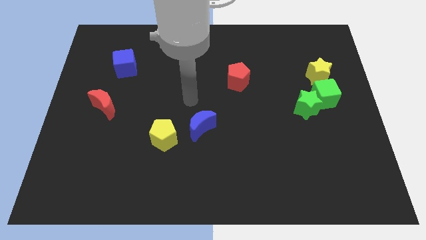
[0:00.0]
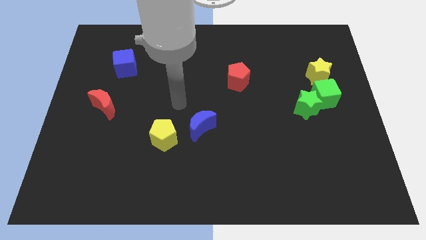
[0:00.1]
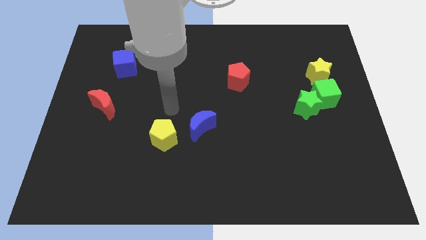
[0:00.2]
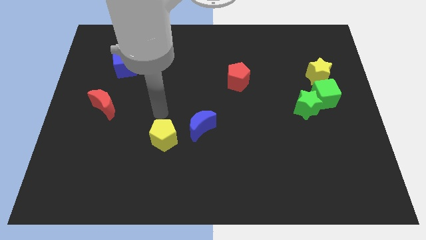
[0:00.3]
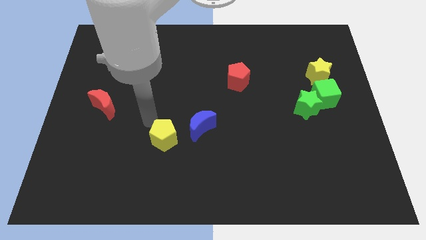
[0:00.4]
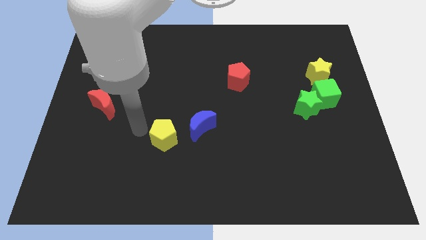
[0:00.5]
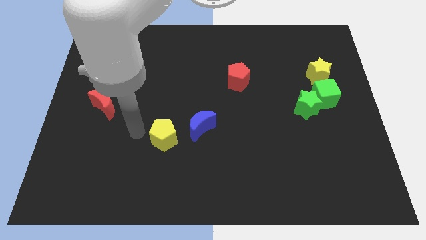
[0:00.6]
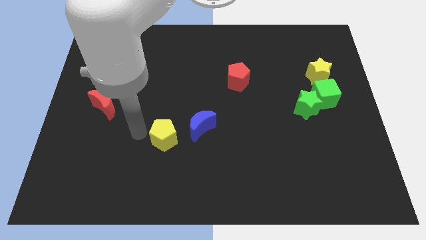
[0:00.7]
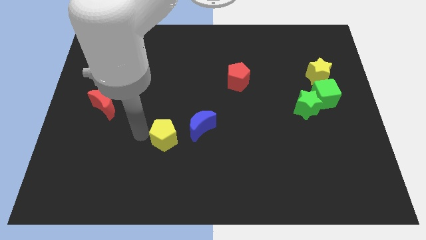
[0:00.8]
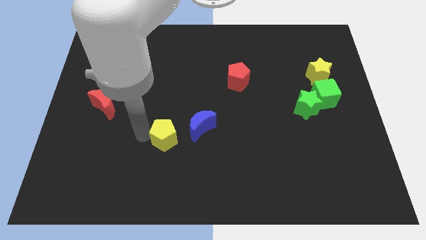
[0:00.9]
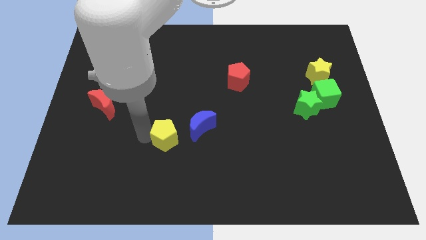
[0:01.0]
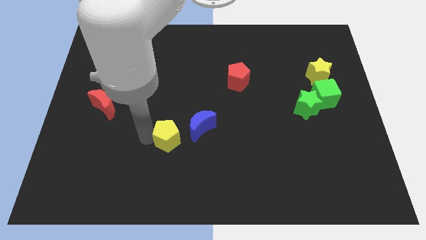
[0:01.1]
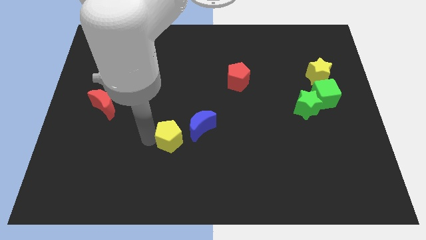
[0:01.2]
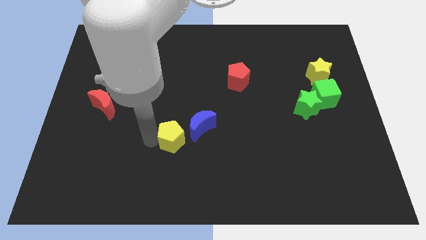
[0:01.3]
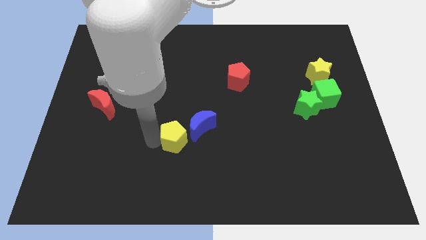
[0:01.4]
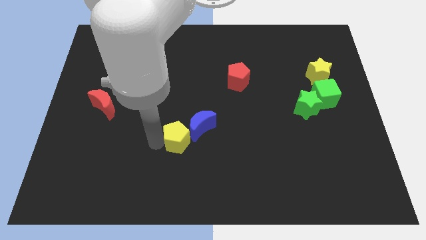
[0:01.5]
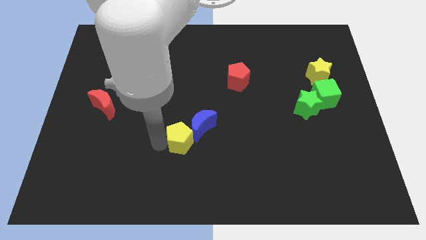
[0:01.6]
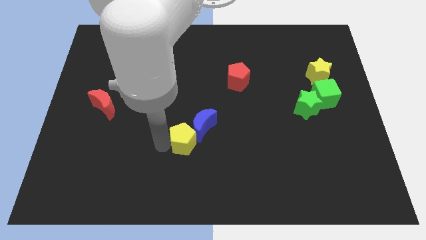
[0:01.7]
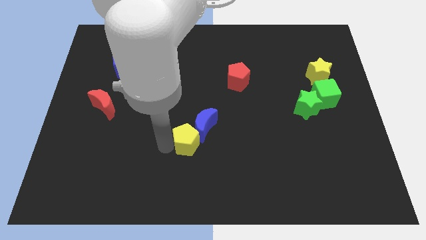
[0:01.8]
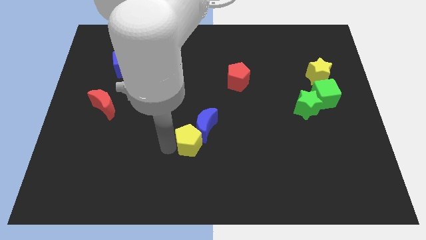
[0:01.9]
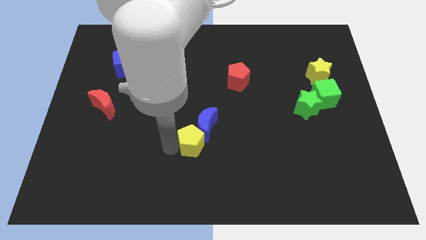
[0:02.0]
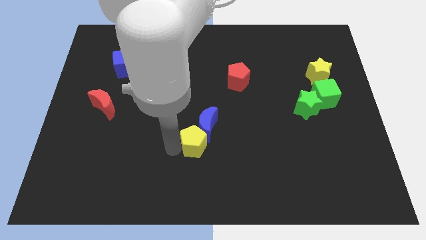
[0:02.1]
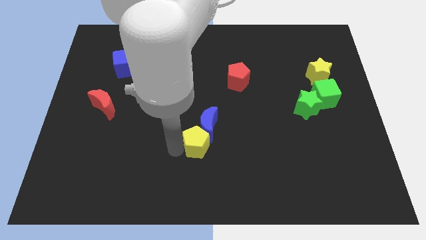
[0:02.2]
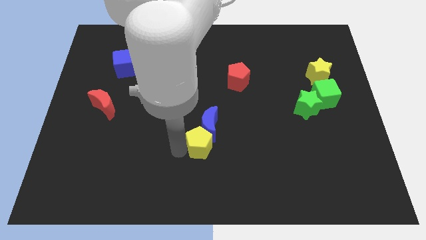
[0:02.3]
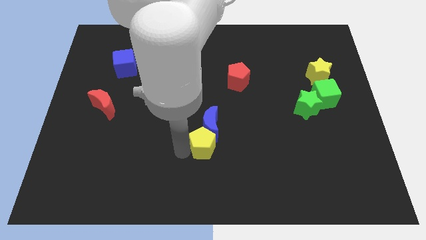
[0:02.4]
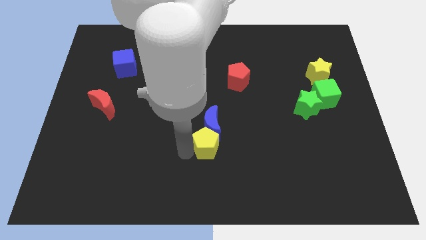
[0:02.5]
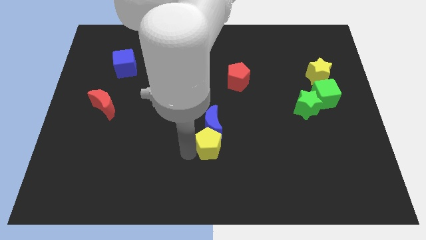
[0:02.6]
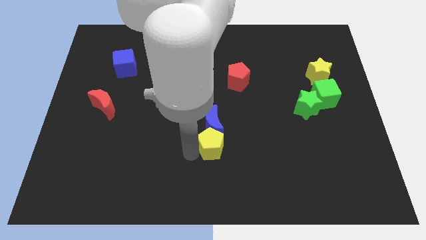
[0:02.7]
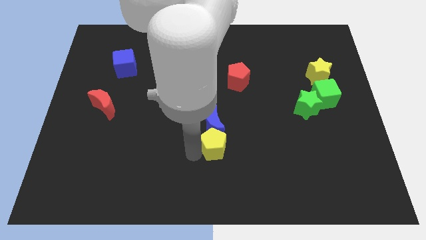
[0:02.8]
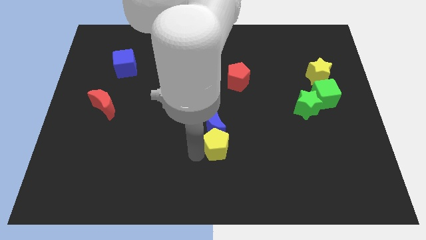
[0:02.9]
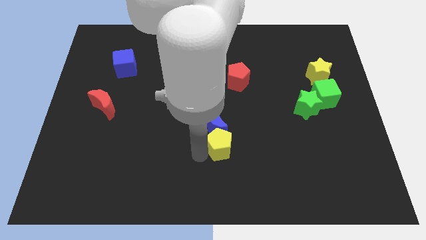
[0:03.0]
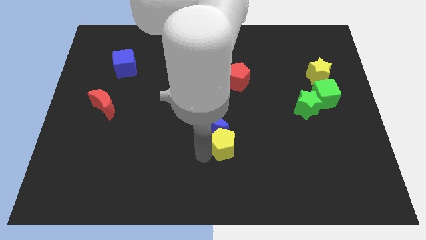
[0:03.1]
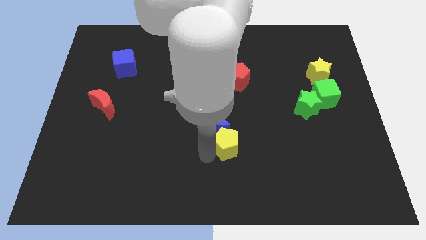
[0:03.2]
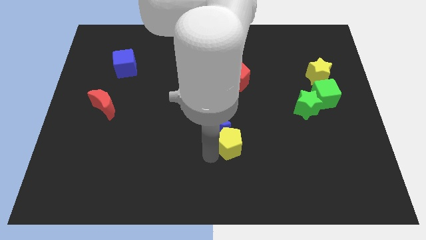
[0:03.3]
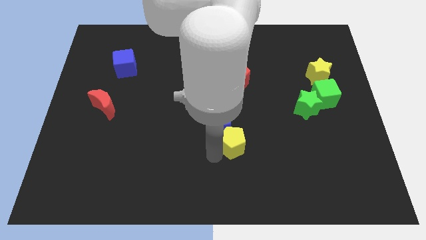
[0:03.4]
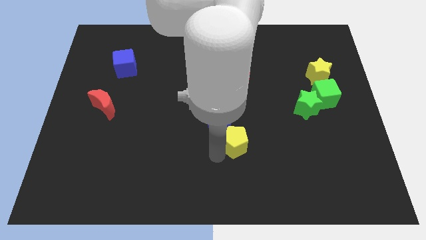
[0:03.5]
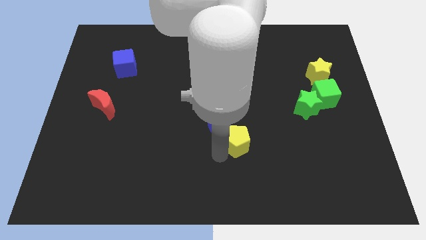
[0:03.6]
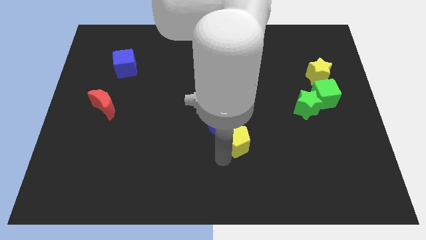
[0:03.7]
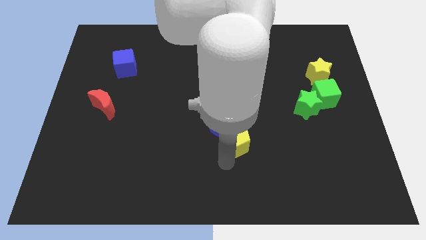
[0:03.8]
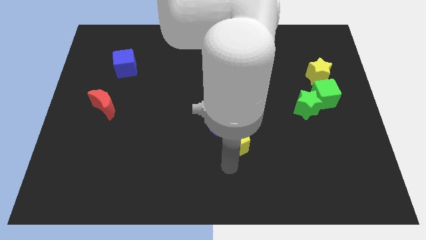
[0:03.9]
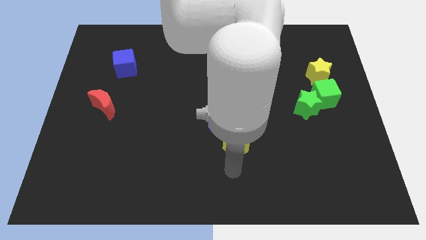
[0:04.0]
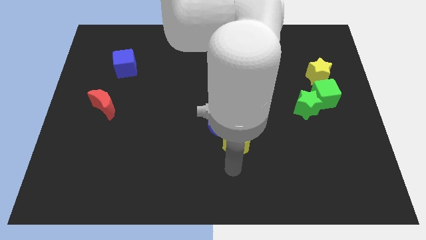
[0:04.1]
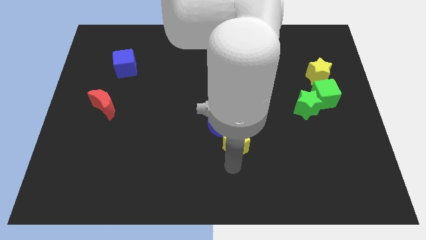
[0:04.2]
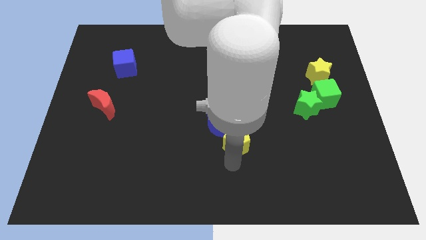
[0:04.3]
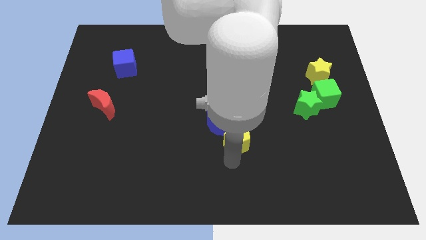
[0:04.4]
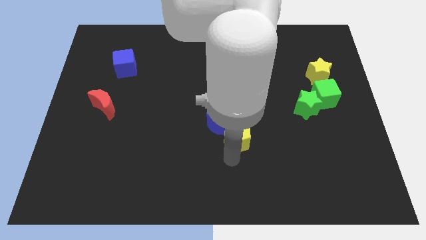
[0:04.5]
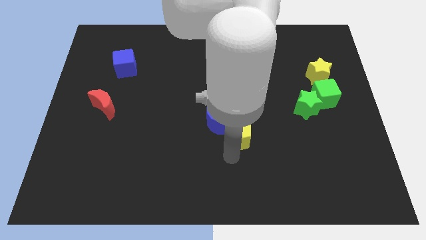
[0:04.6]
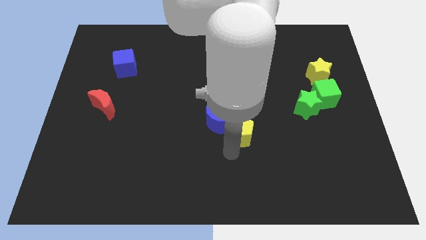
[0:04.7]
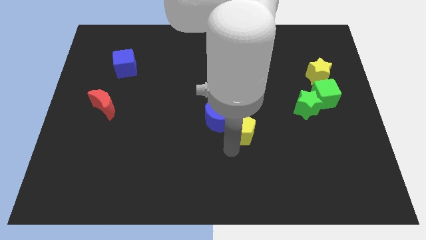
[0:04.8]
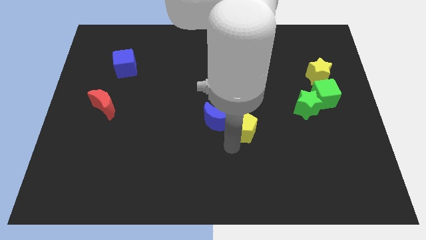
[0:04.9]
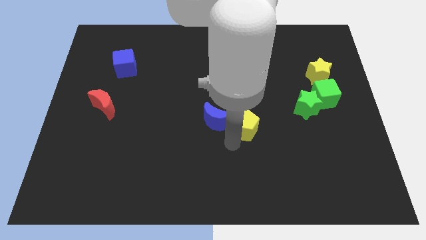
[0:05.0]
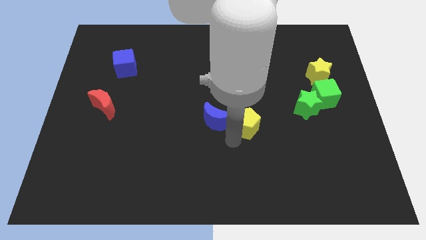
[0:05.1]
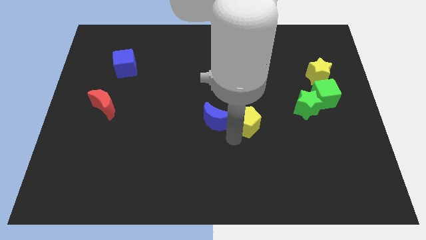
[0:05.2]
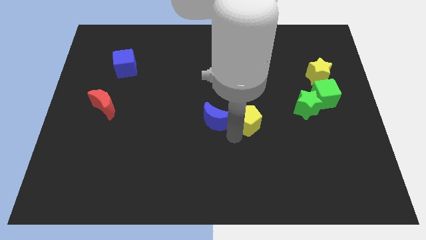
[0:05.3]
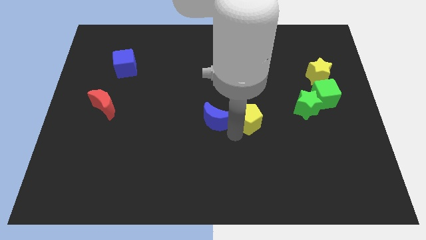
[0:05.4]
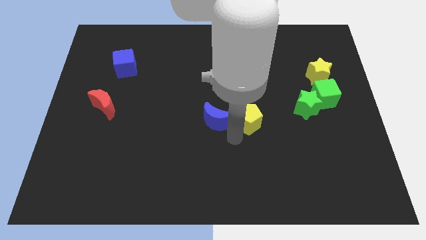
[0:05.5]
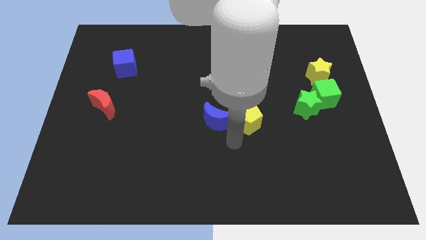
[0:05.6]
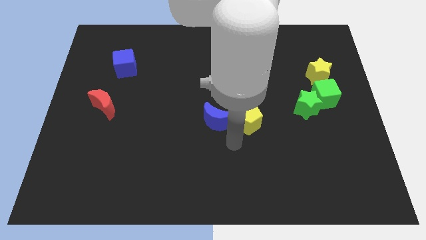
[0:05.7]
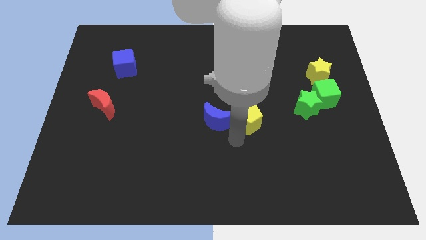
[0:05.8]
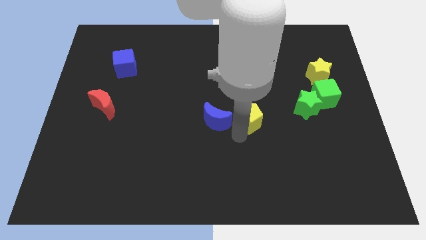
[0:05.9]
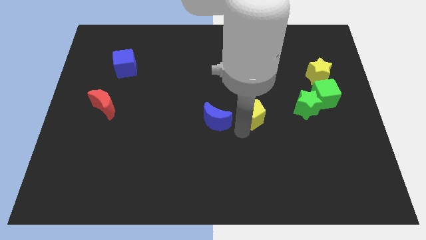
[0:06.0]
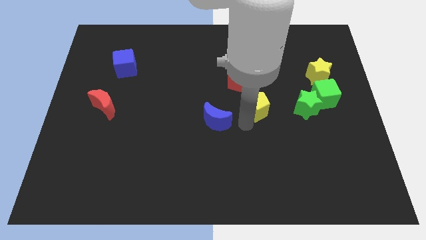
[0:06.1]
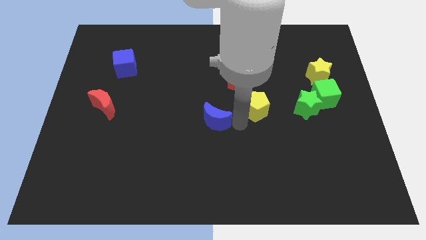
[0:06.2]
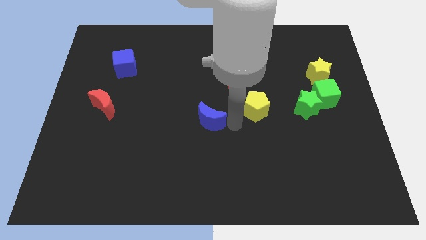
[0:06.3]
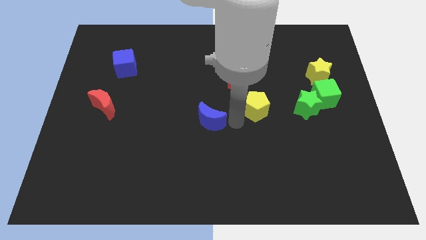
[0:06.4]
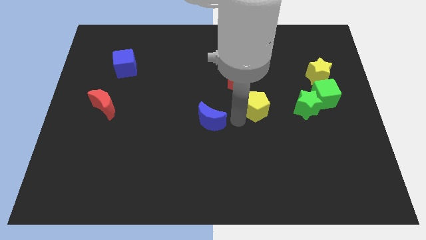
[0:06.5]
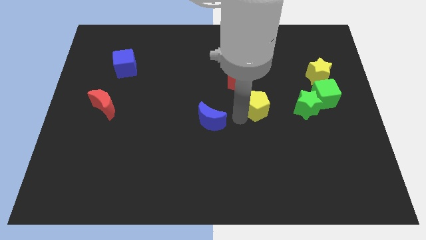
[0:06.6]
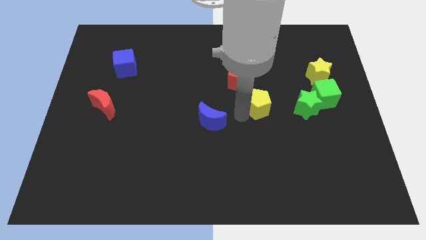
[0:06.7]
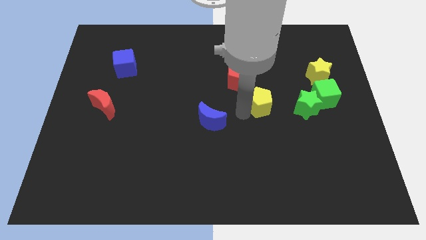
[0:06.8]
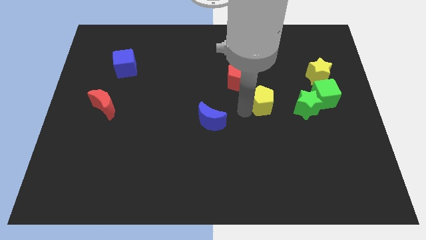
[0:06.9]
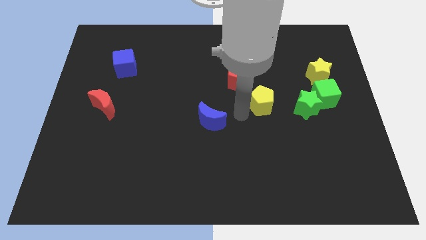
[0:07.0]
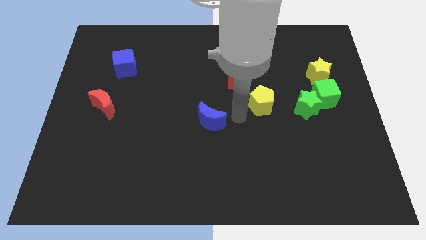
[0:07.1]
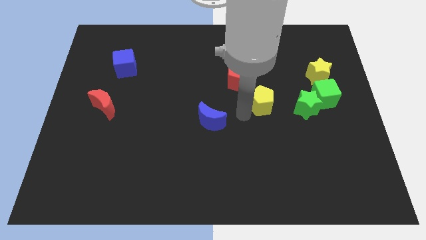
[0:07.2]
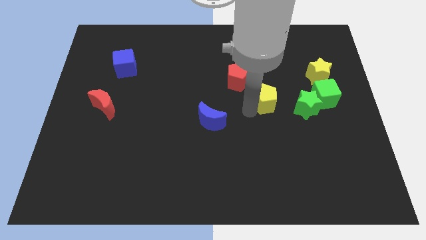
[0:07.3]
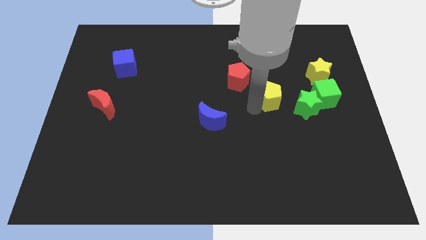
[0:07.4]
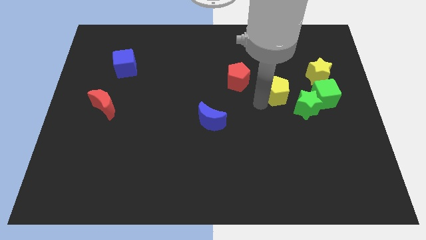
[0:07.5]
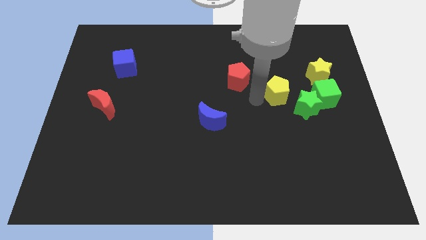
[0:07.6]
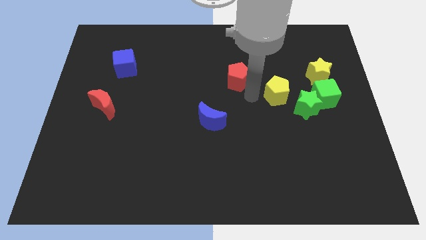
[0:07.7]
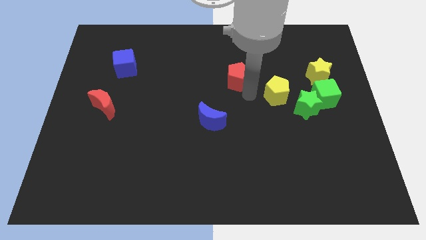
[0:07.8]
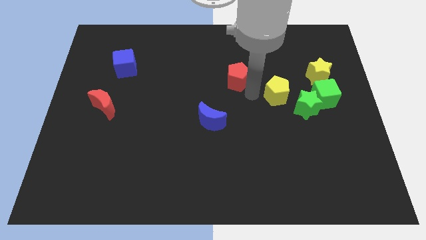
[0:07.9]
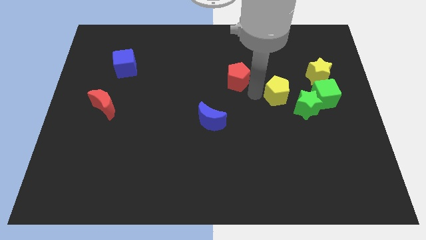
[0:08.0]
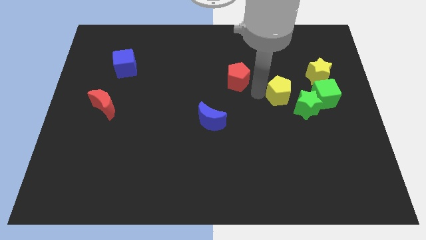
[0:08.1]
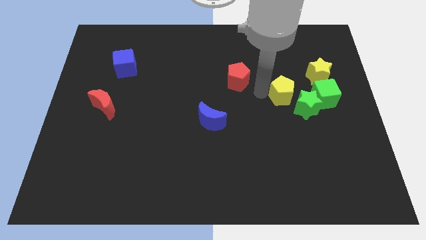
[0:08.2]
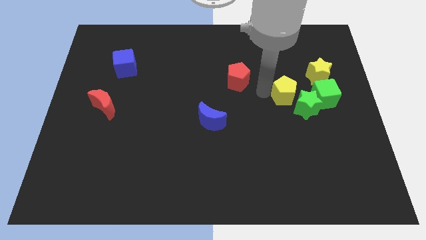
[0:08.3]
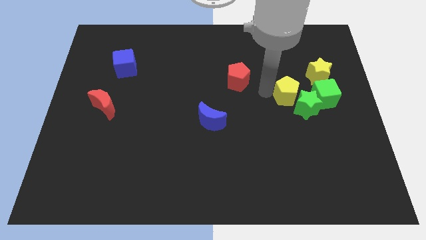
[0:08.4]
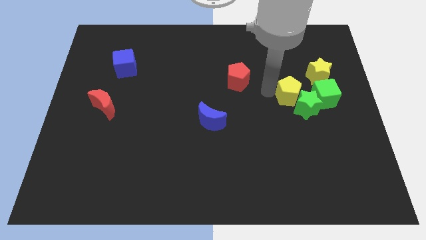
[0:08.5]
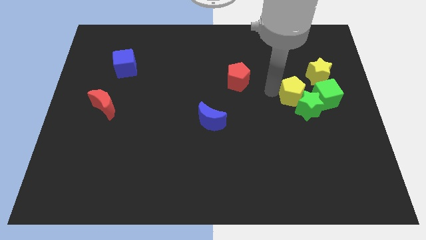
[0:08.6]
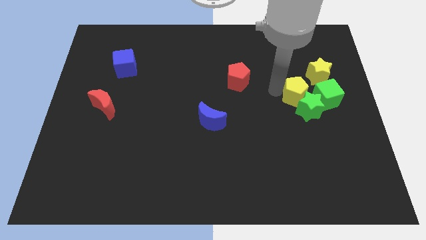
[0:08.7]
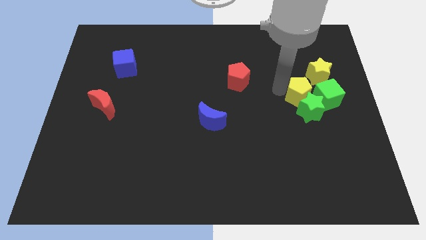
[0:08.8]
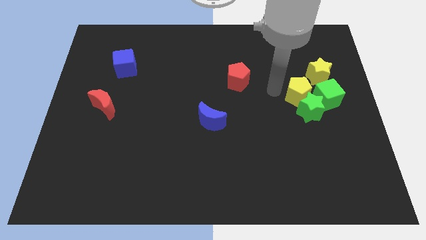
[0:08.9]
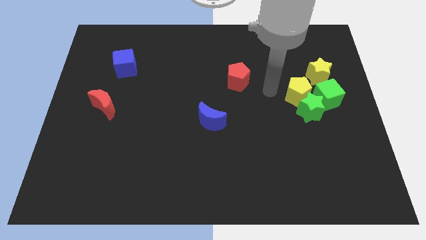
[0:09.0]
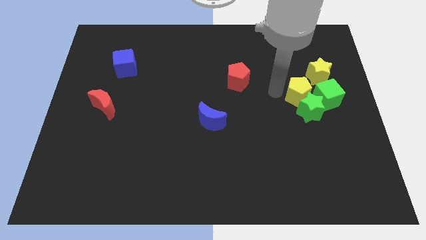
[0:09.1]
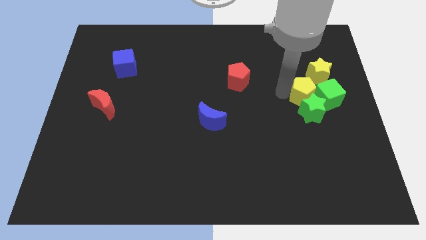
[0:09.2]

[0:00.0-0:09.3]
put the yellow pentagon next to the green cube
